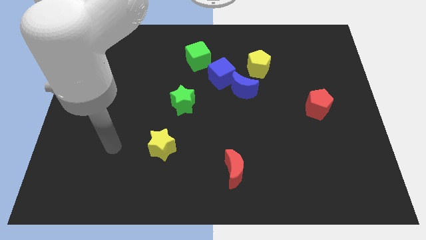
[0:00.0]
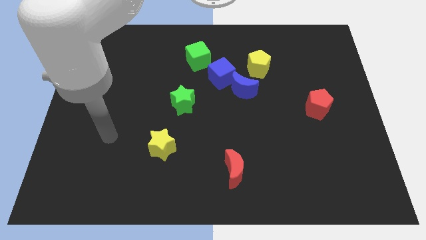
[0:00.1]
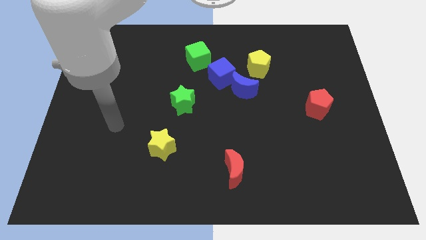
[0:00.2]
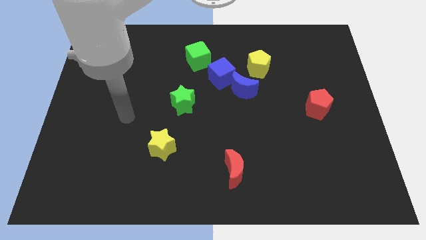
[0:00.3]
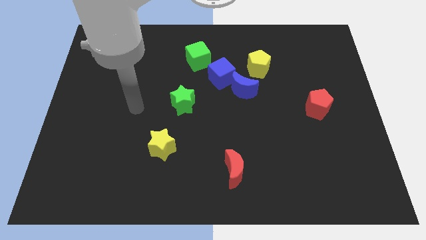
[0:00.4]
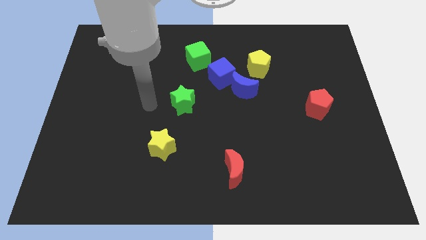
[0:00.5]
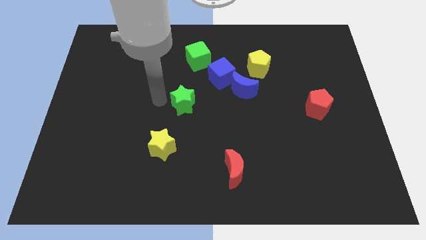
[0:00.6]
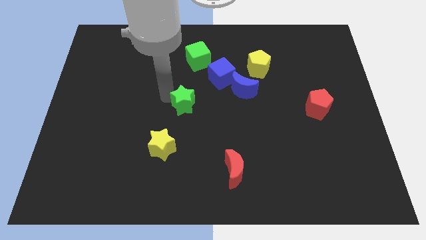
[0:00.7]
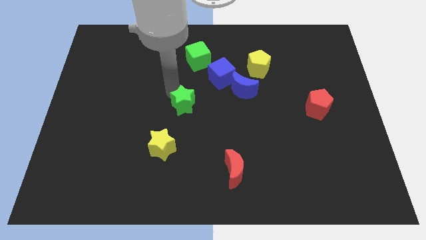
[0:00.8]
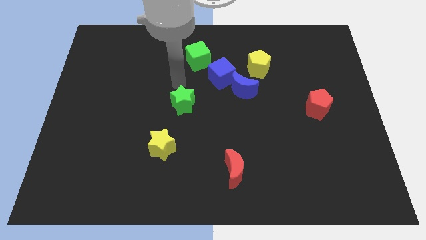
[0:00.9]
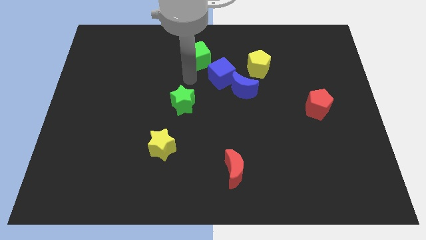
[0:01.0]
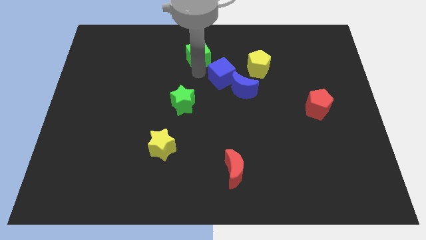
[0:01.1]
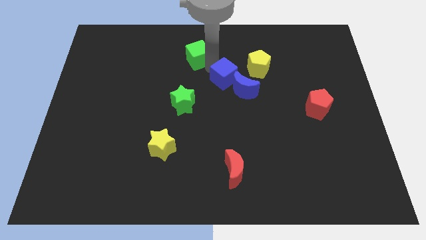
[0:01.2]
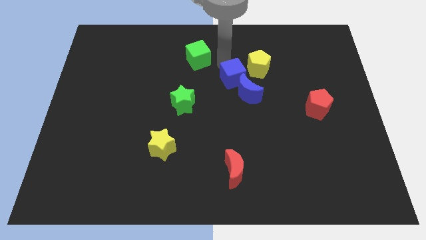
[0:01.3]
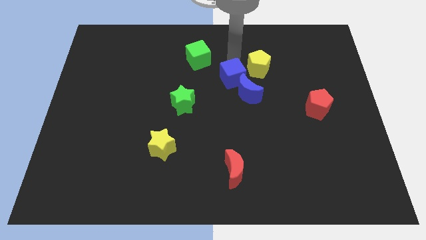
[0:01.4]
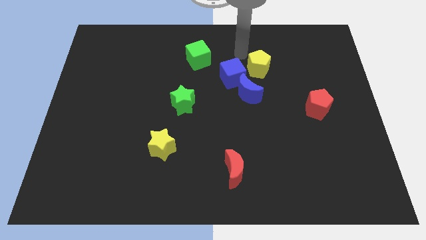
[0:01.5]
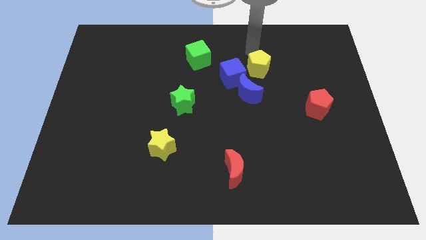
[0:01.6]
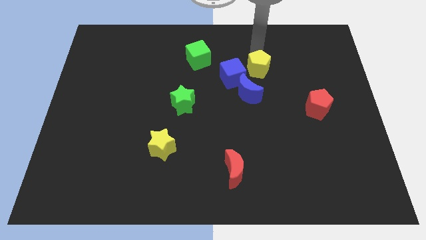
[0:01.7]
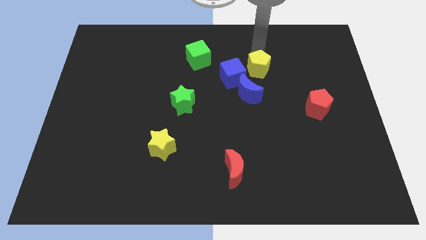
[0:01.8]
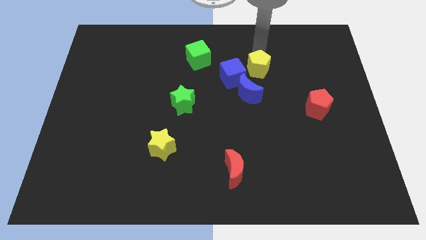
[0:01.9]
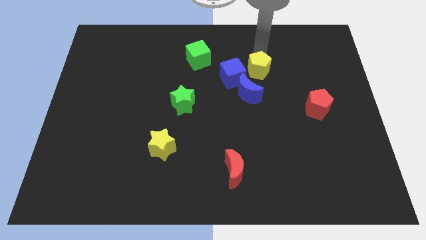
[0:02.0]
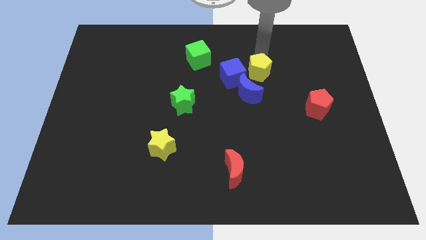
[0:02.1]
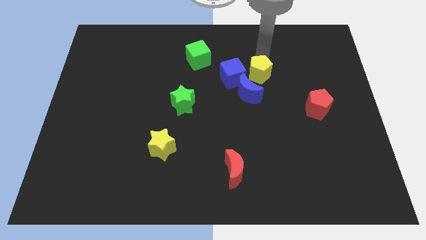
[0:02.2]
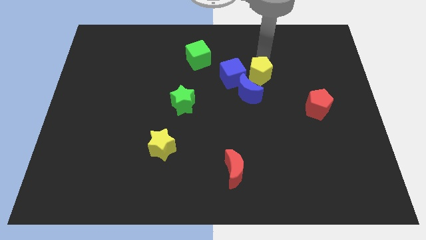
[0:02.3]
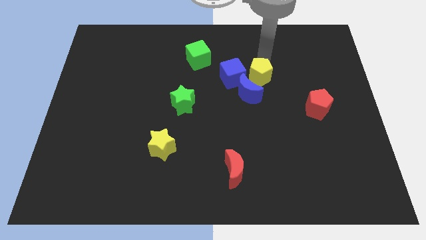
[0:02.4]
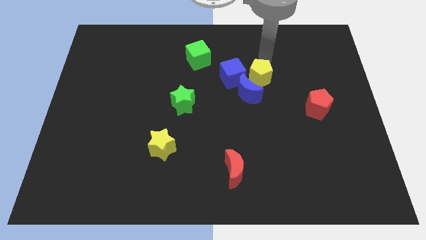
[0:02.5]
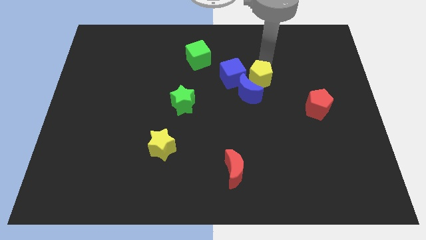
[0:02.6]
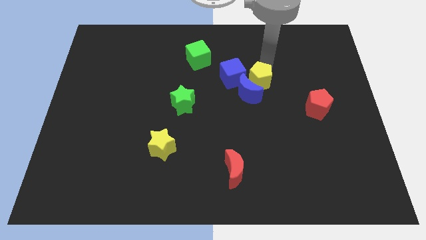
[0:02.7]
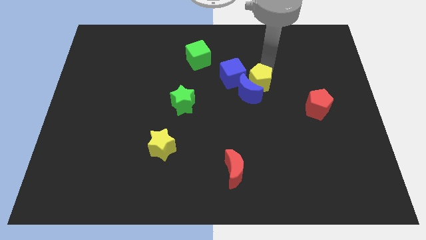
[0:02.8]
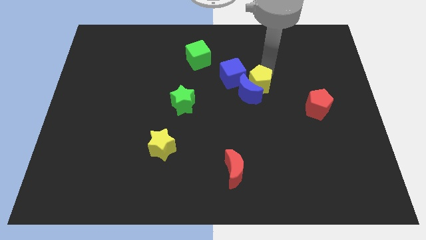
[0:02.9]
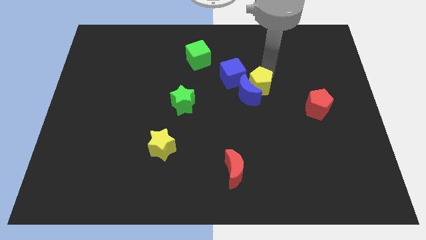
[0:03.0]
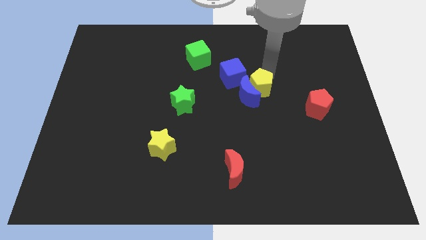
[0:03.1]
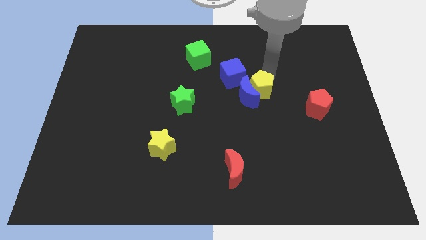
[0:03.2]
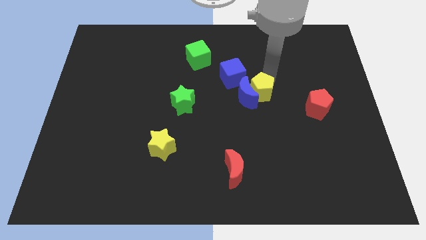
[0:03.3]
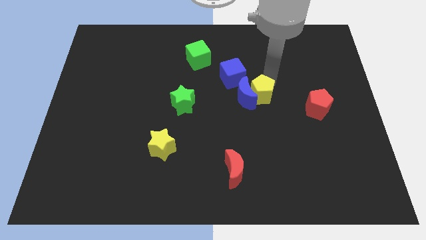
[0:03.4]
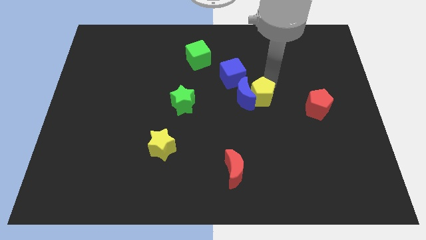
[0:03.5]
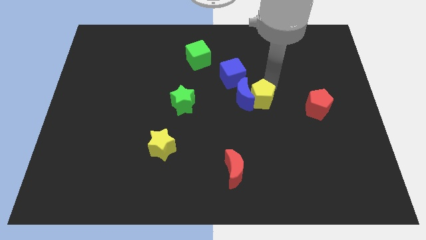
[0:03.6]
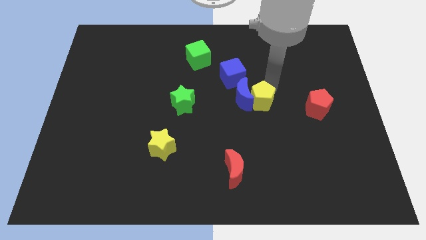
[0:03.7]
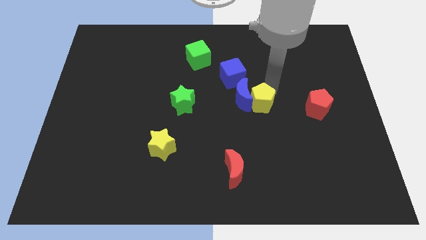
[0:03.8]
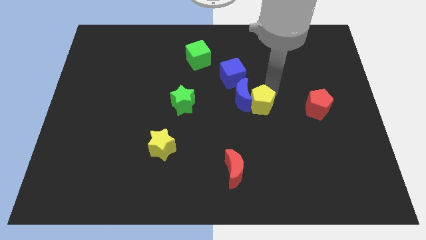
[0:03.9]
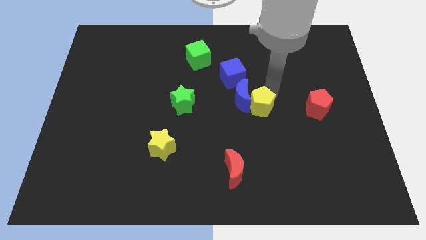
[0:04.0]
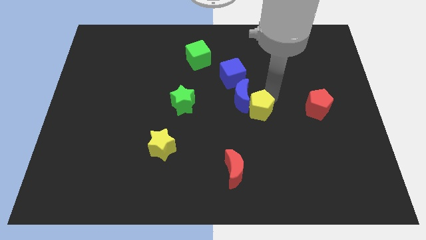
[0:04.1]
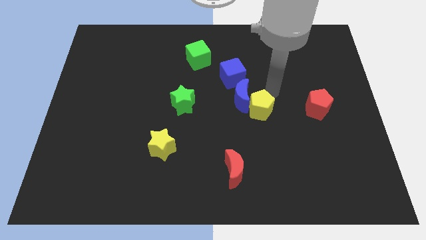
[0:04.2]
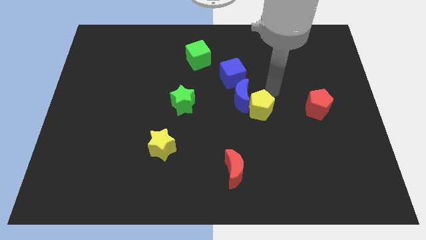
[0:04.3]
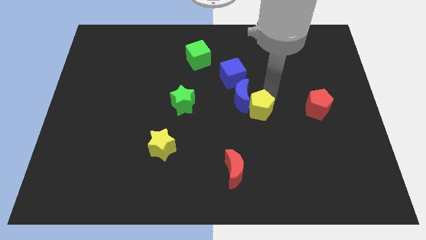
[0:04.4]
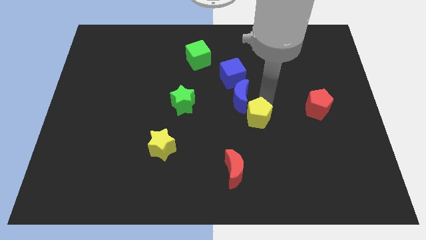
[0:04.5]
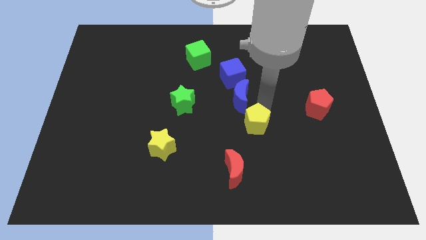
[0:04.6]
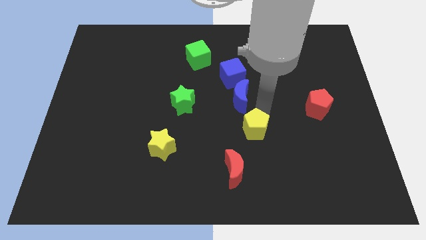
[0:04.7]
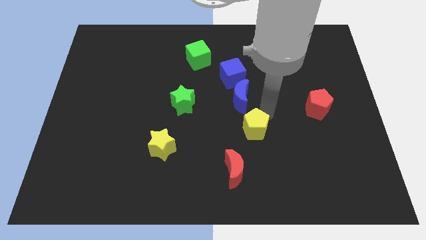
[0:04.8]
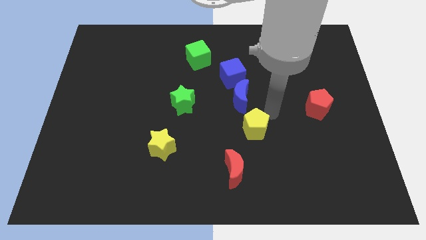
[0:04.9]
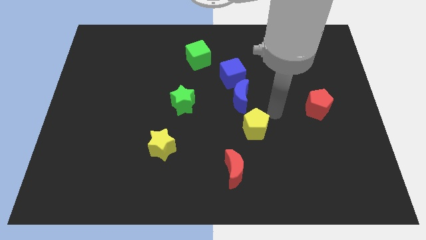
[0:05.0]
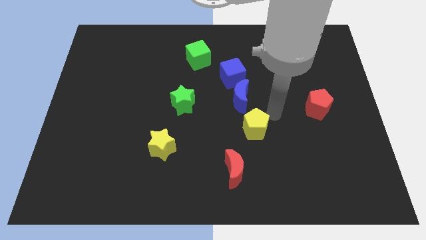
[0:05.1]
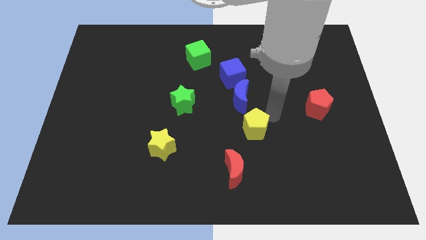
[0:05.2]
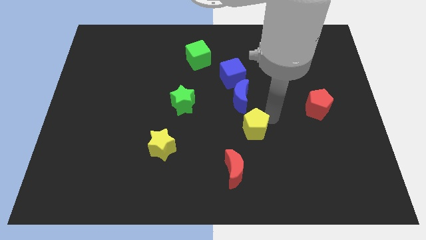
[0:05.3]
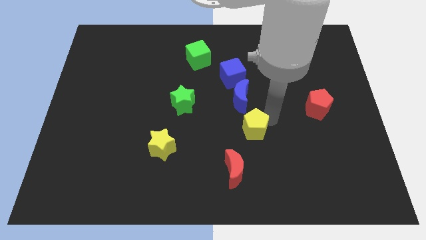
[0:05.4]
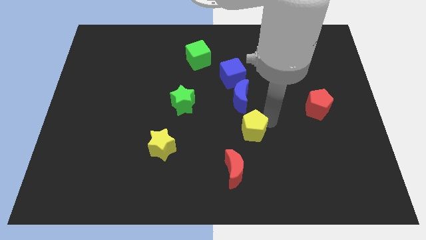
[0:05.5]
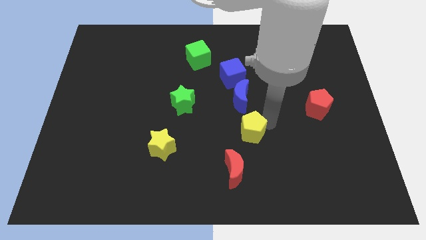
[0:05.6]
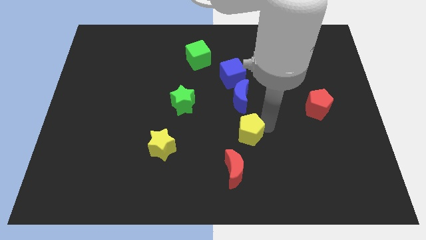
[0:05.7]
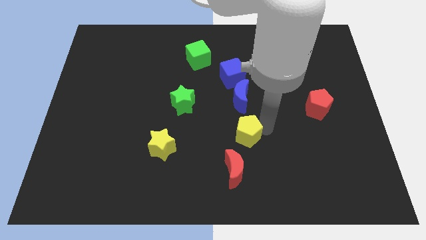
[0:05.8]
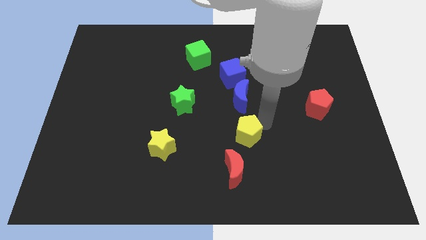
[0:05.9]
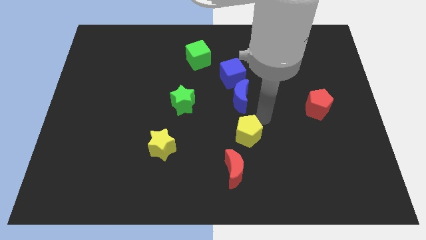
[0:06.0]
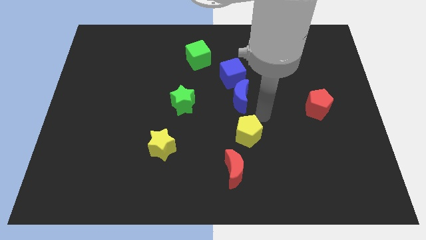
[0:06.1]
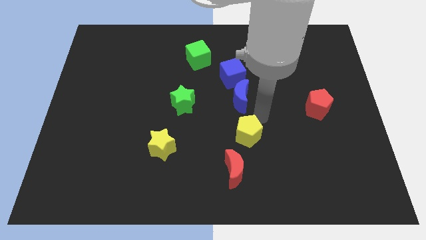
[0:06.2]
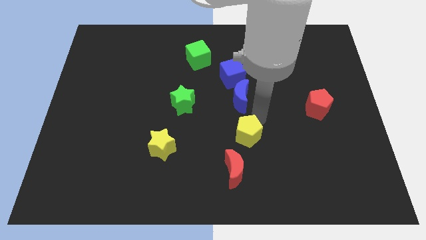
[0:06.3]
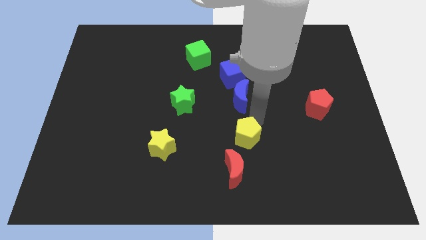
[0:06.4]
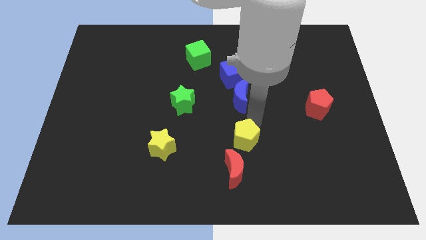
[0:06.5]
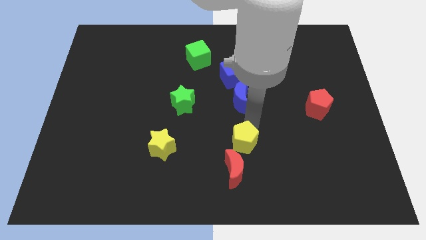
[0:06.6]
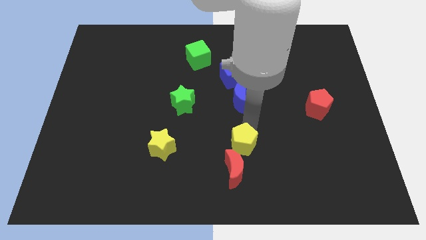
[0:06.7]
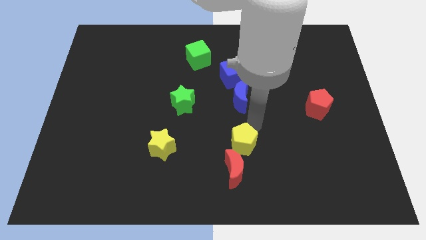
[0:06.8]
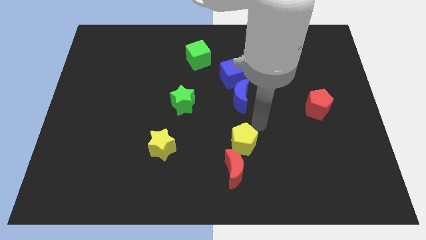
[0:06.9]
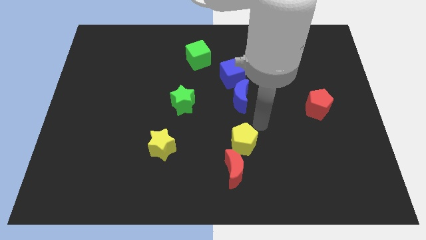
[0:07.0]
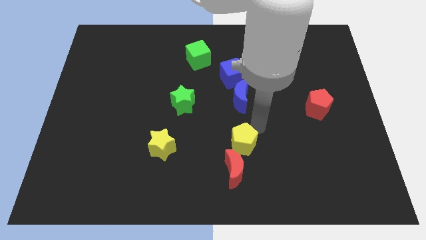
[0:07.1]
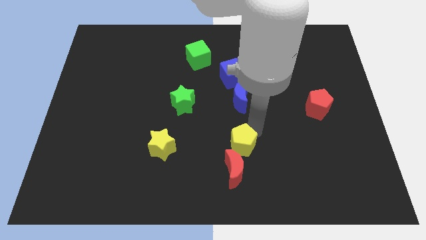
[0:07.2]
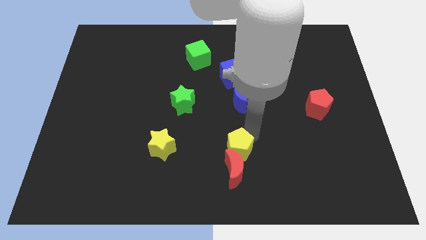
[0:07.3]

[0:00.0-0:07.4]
move the yellow pentagon next to the red moon
